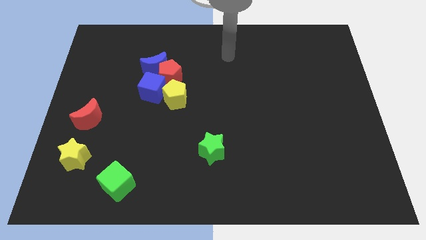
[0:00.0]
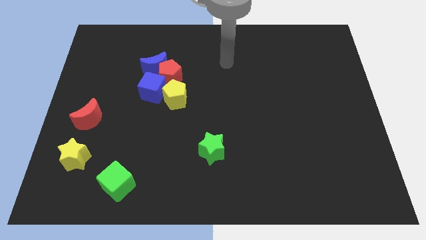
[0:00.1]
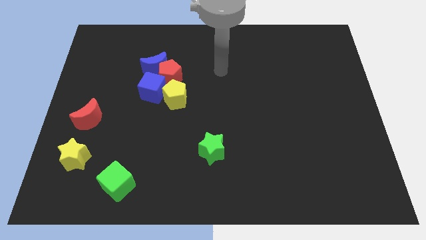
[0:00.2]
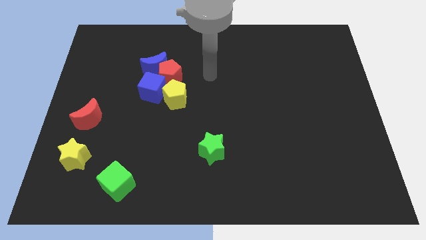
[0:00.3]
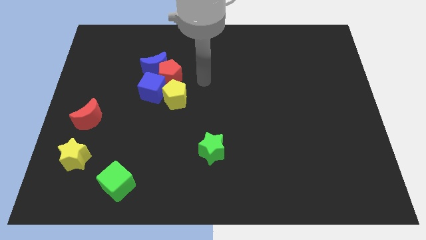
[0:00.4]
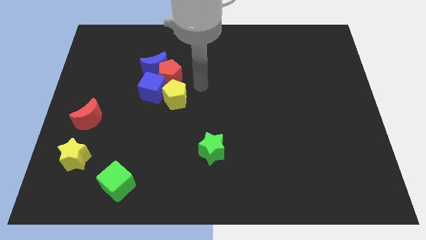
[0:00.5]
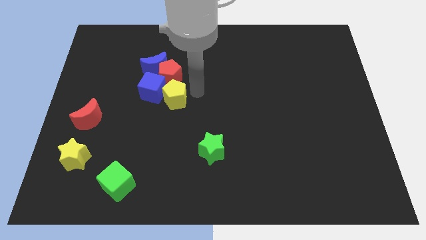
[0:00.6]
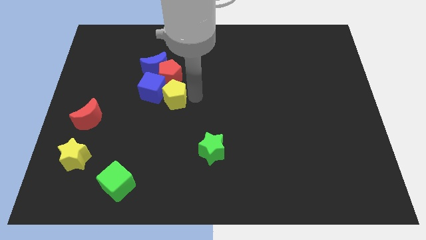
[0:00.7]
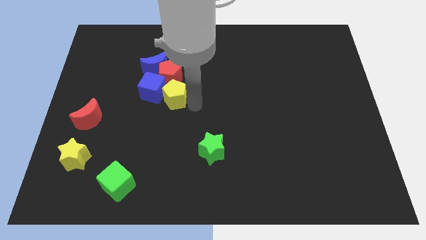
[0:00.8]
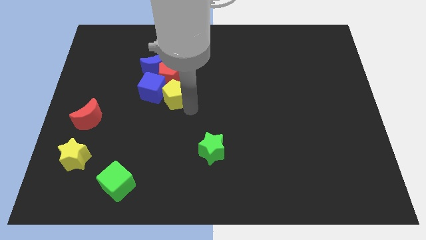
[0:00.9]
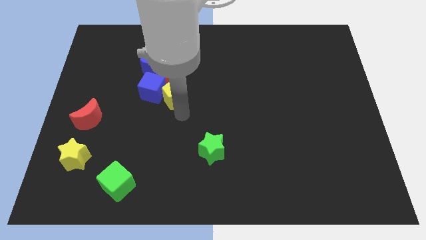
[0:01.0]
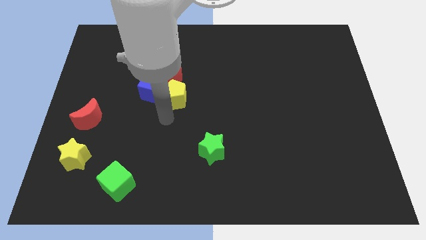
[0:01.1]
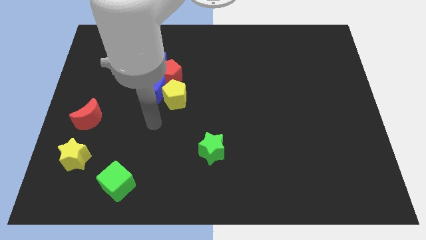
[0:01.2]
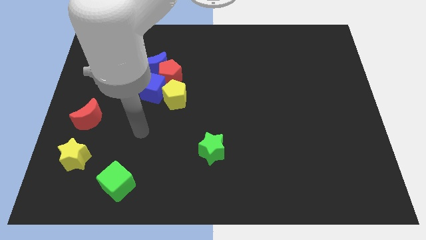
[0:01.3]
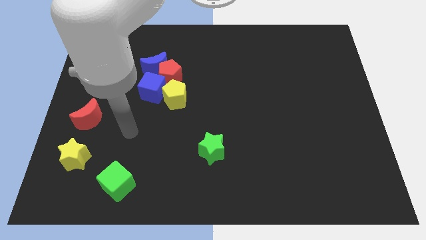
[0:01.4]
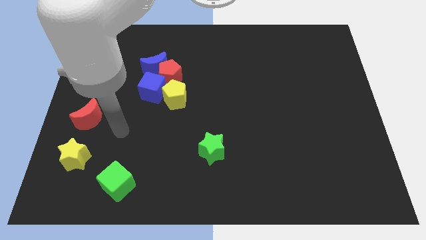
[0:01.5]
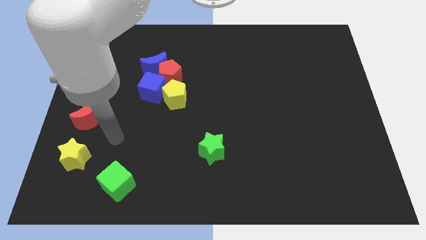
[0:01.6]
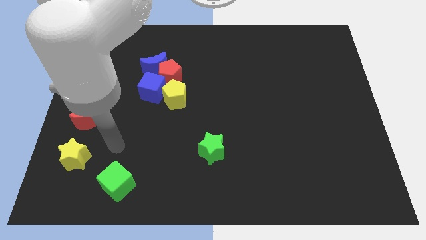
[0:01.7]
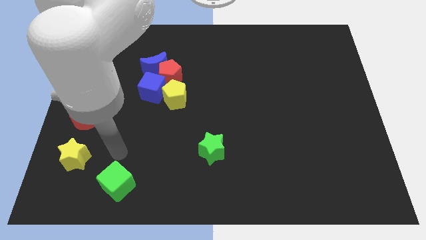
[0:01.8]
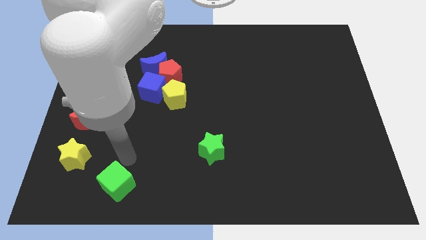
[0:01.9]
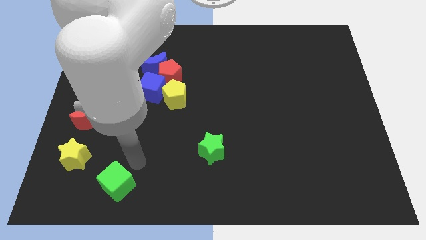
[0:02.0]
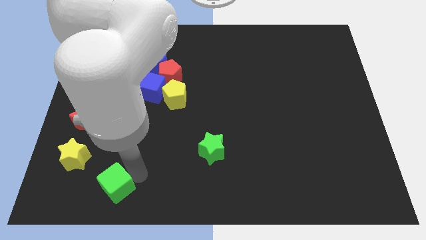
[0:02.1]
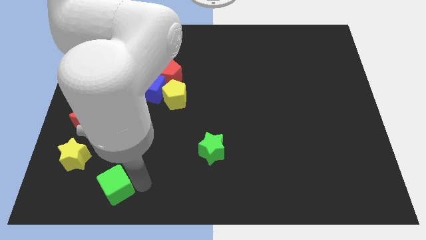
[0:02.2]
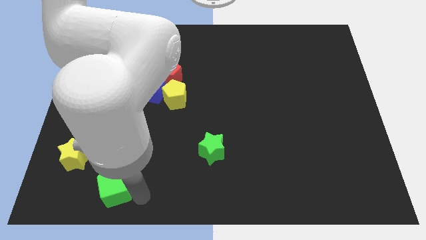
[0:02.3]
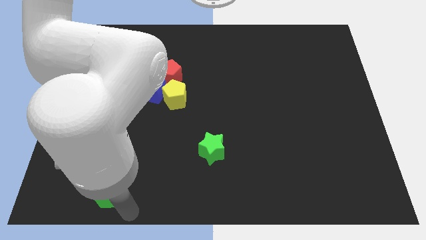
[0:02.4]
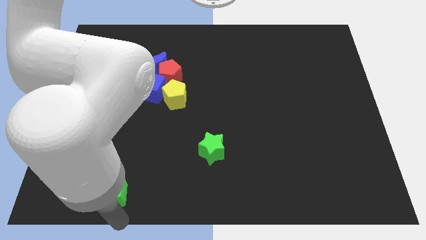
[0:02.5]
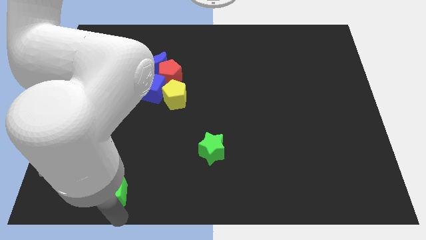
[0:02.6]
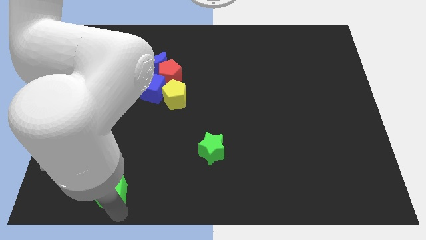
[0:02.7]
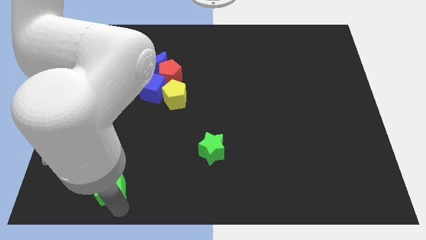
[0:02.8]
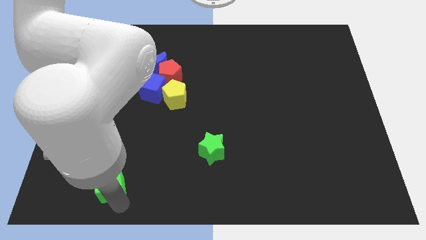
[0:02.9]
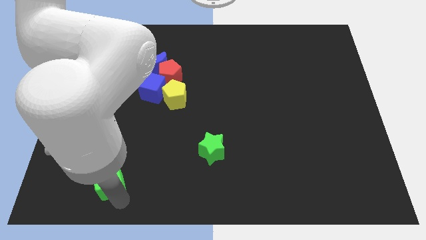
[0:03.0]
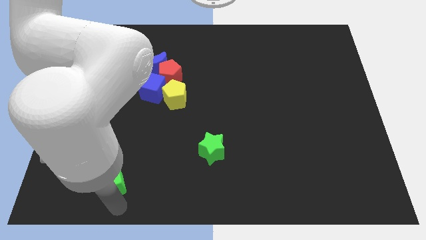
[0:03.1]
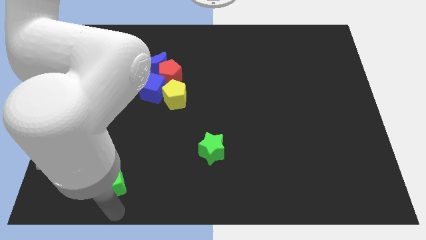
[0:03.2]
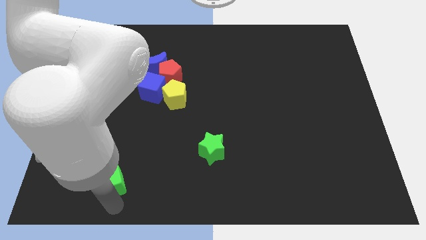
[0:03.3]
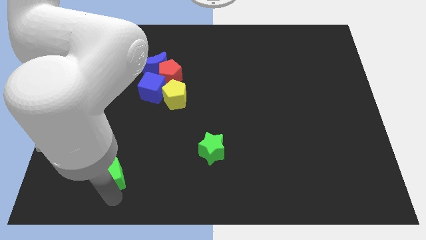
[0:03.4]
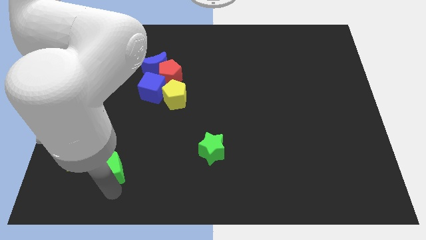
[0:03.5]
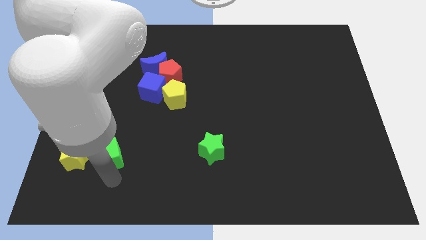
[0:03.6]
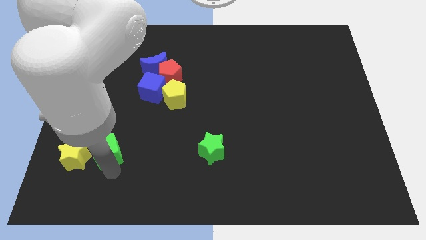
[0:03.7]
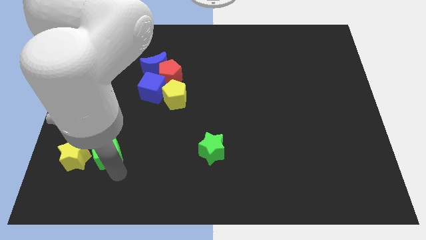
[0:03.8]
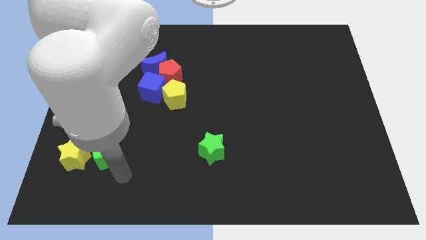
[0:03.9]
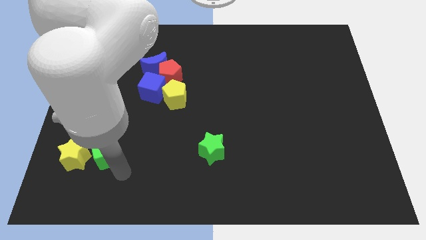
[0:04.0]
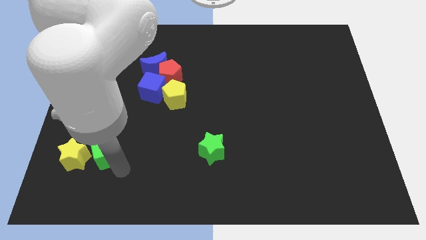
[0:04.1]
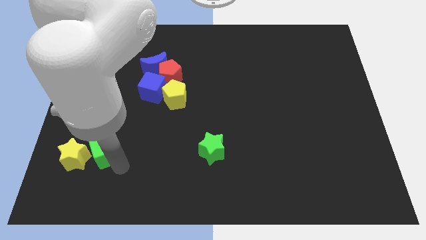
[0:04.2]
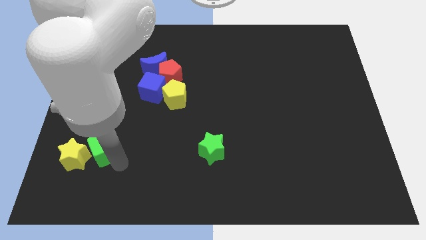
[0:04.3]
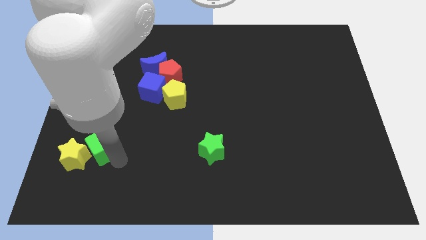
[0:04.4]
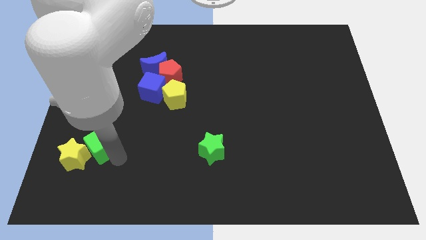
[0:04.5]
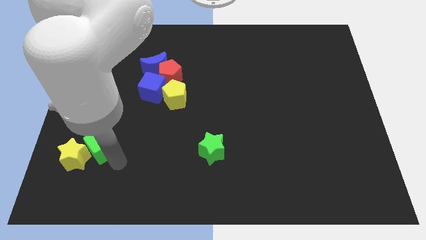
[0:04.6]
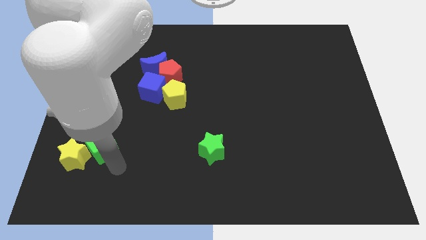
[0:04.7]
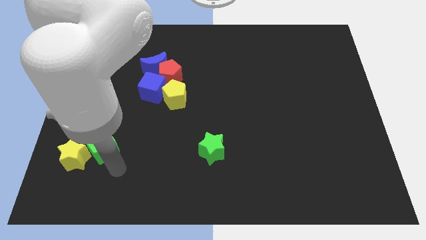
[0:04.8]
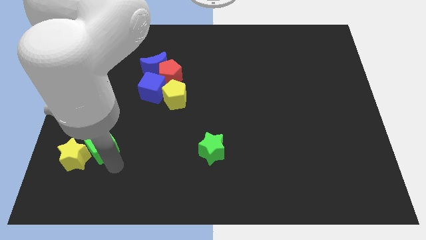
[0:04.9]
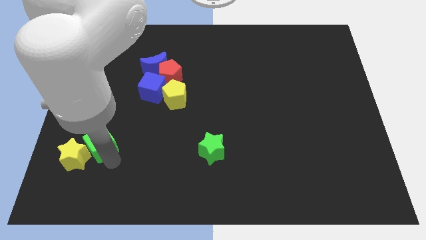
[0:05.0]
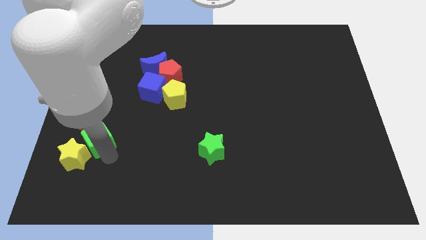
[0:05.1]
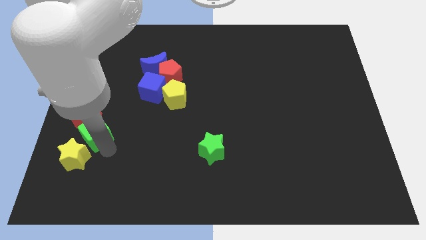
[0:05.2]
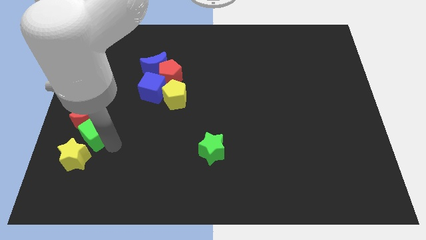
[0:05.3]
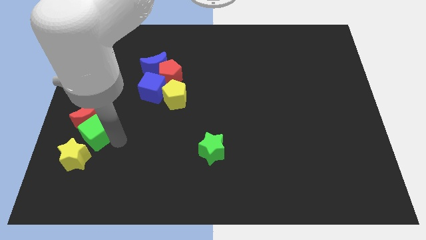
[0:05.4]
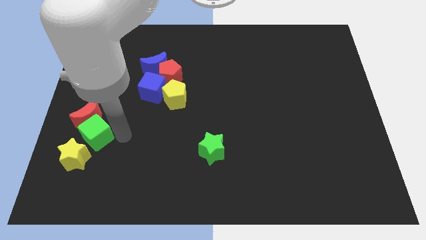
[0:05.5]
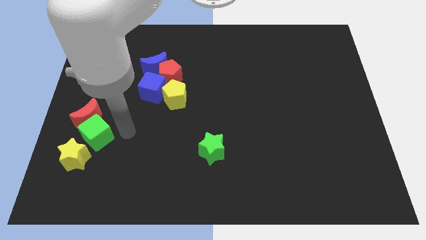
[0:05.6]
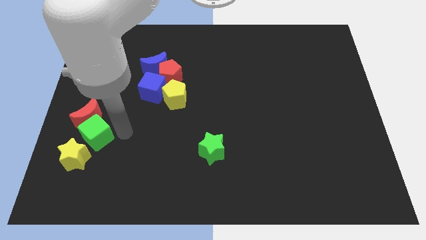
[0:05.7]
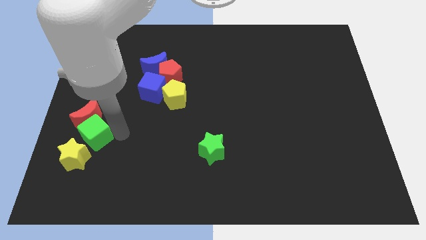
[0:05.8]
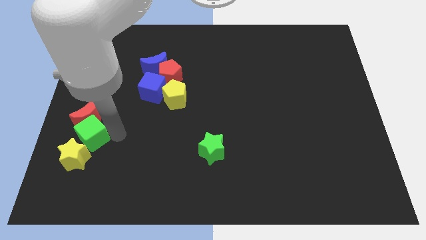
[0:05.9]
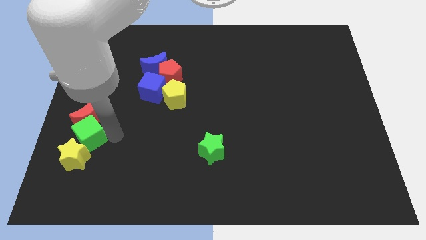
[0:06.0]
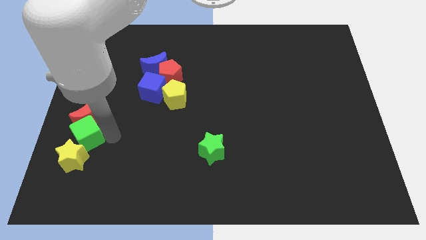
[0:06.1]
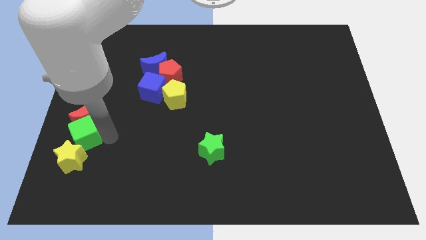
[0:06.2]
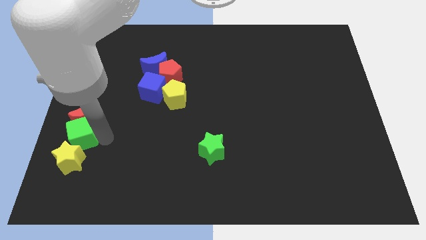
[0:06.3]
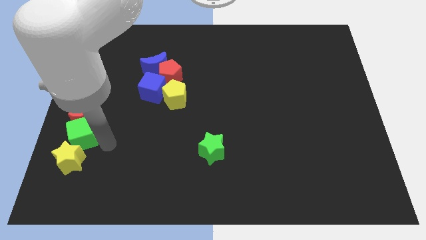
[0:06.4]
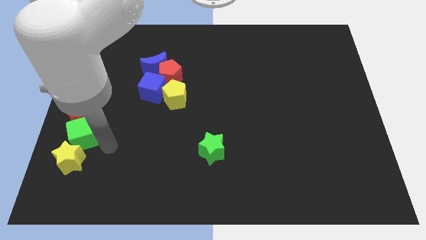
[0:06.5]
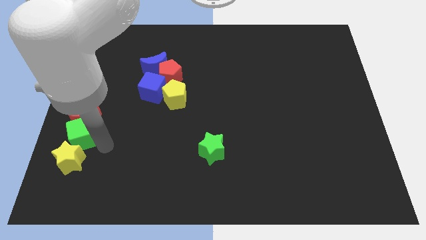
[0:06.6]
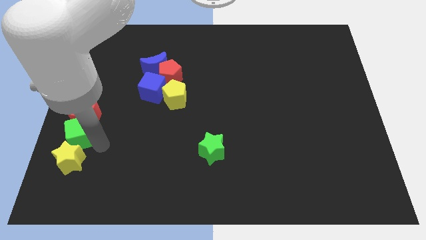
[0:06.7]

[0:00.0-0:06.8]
move the green cube to the left side of the board
